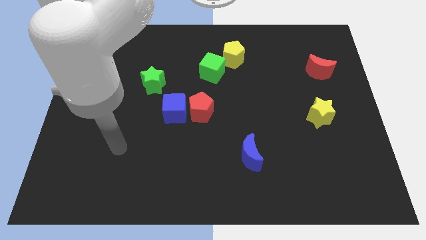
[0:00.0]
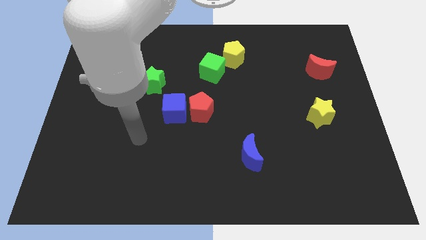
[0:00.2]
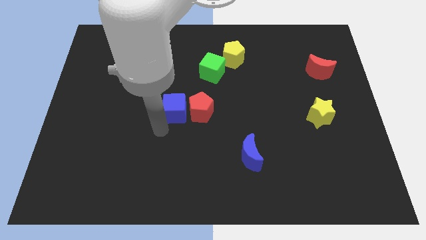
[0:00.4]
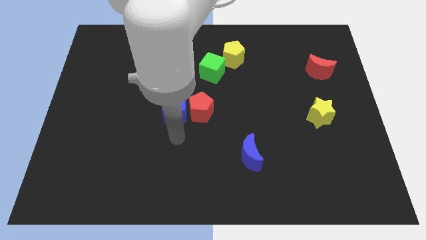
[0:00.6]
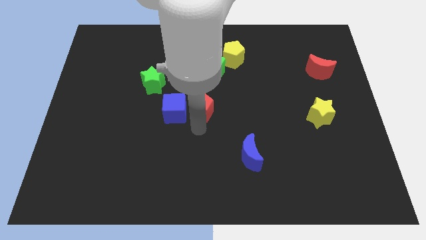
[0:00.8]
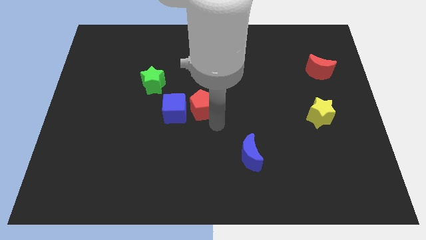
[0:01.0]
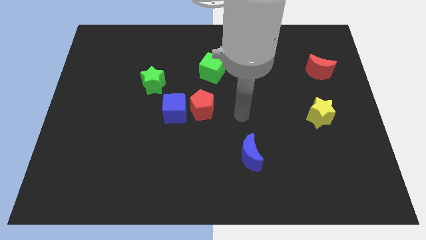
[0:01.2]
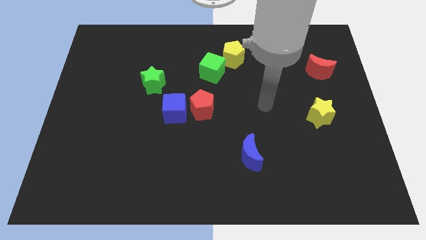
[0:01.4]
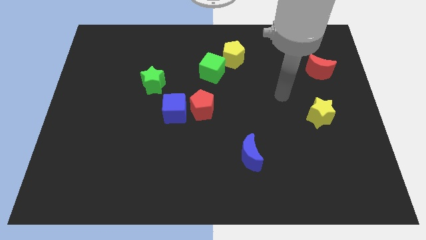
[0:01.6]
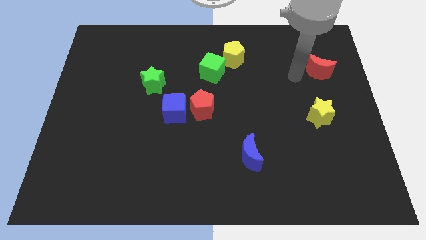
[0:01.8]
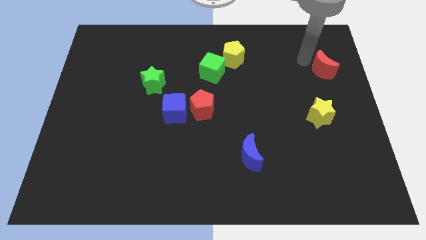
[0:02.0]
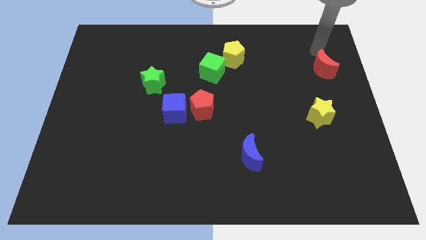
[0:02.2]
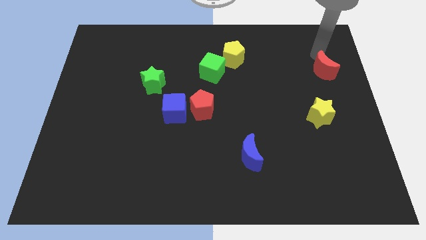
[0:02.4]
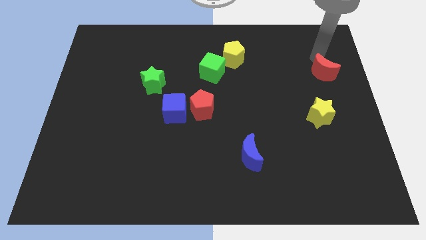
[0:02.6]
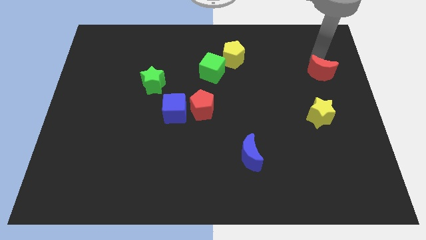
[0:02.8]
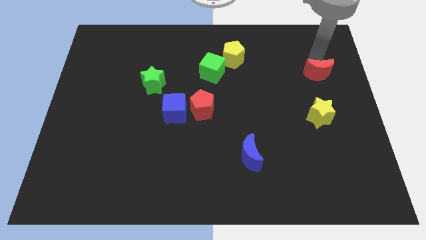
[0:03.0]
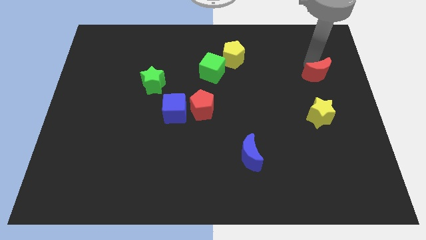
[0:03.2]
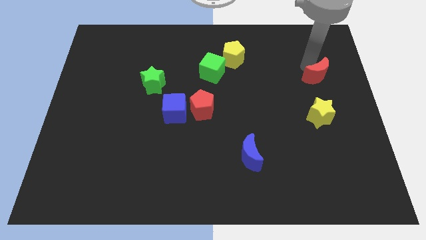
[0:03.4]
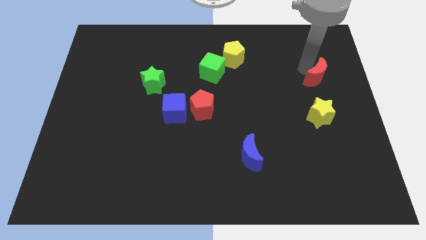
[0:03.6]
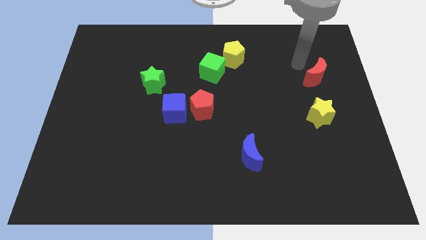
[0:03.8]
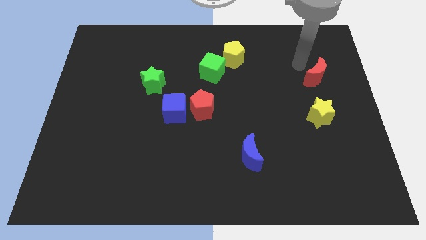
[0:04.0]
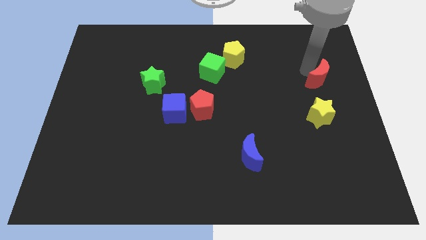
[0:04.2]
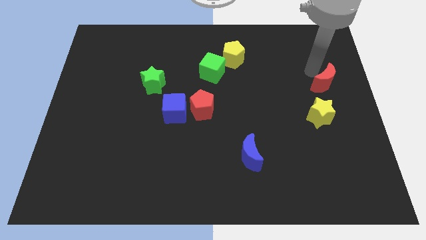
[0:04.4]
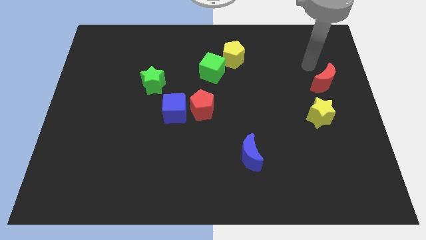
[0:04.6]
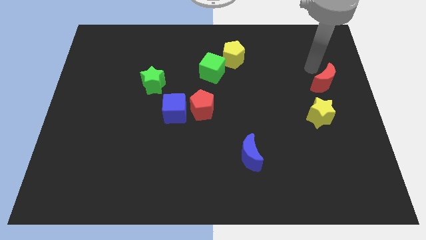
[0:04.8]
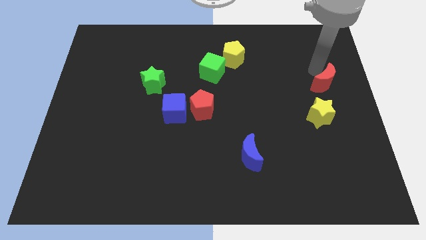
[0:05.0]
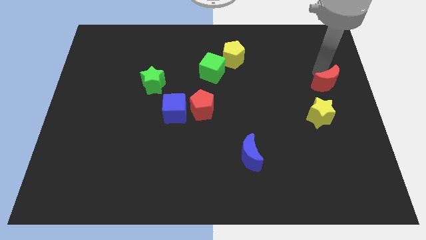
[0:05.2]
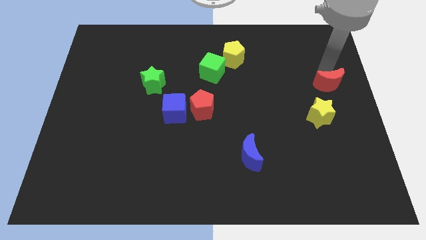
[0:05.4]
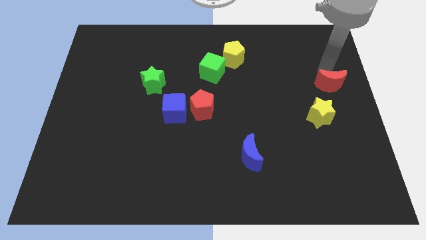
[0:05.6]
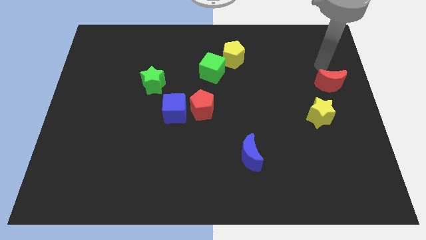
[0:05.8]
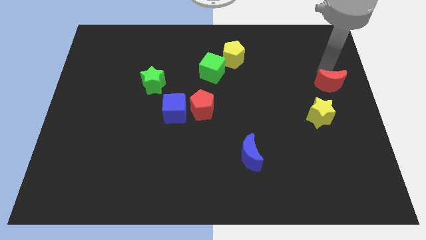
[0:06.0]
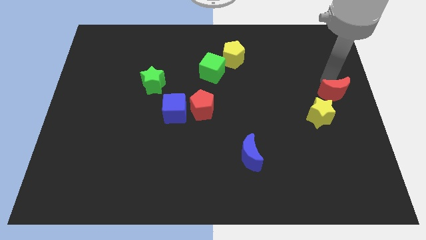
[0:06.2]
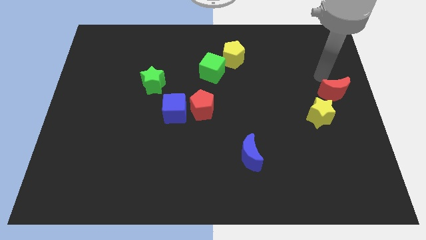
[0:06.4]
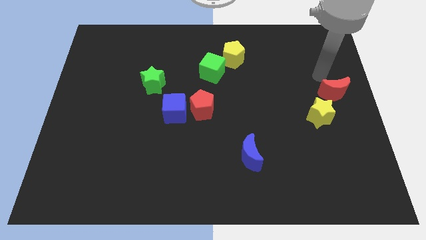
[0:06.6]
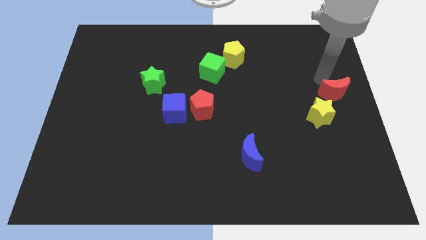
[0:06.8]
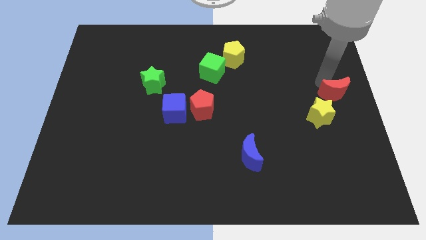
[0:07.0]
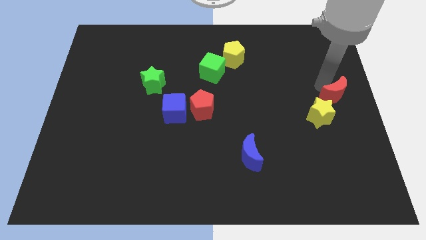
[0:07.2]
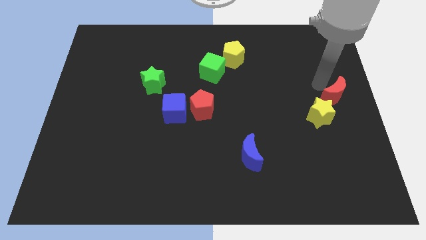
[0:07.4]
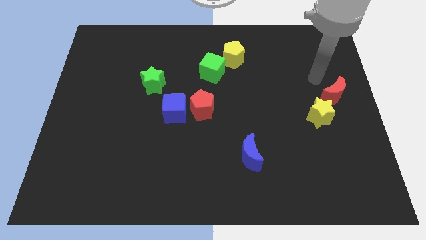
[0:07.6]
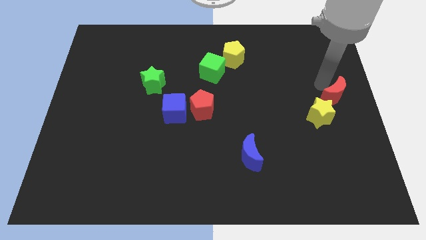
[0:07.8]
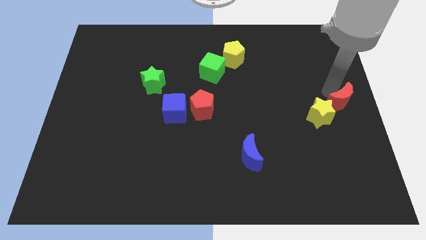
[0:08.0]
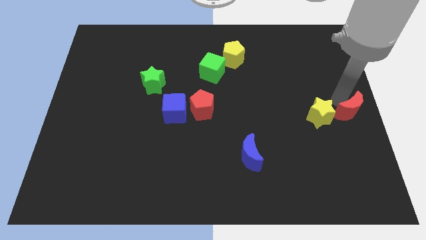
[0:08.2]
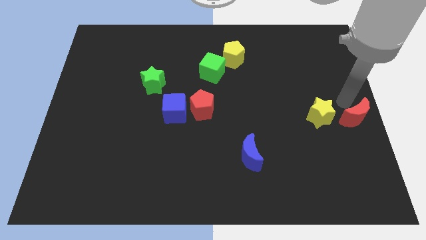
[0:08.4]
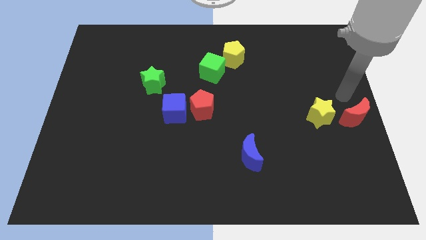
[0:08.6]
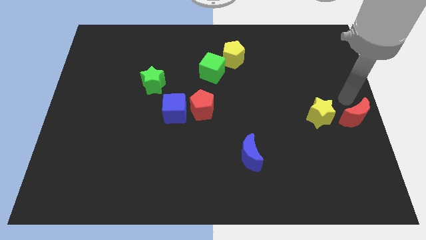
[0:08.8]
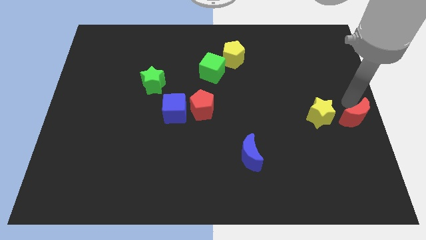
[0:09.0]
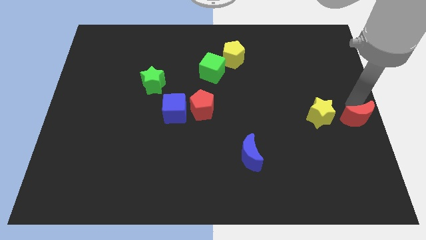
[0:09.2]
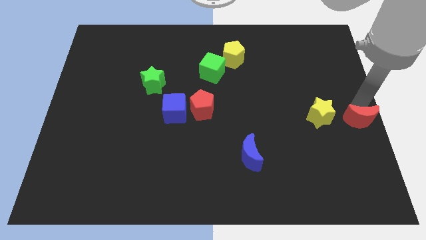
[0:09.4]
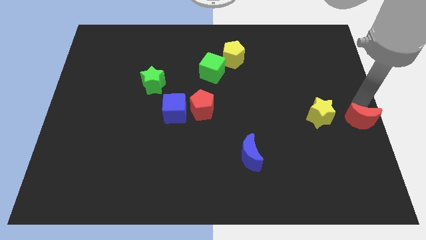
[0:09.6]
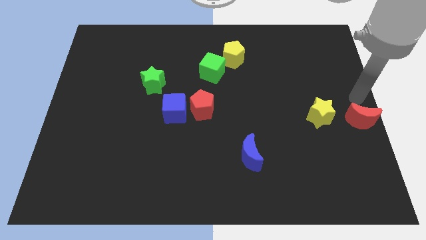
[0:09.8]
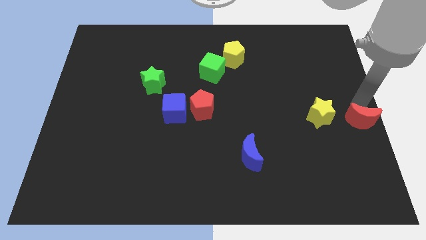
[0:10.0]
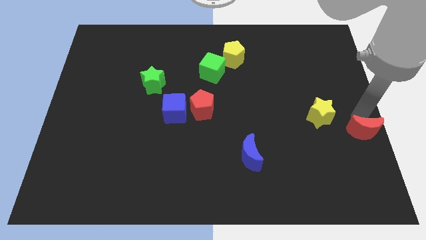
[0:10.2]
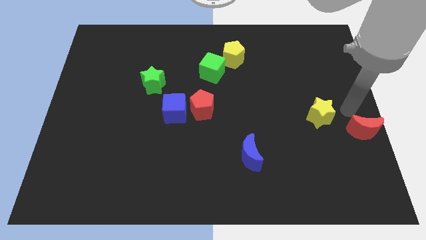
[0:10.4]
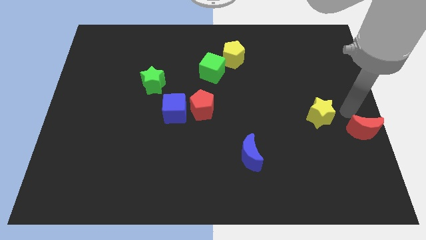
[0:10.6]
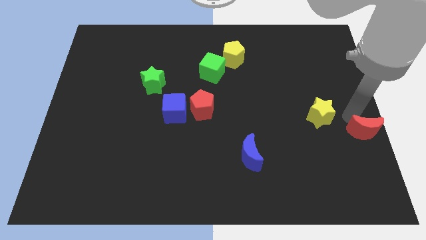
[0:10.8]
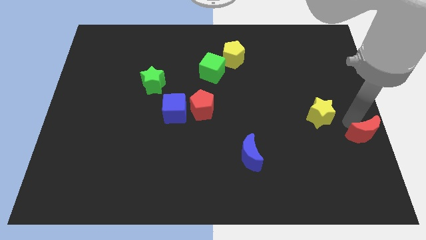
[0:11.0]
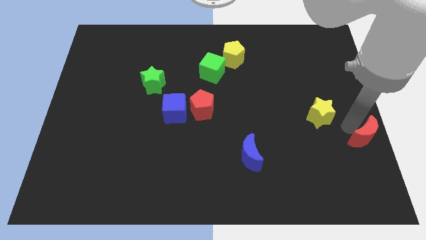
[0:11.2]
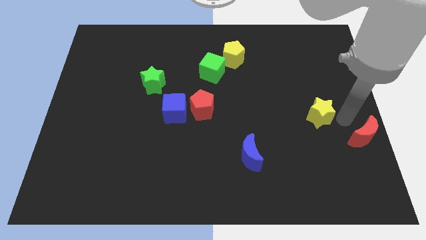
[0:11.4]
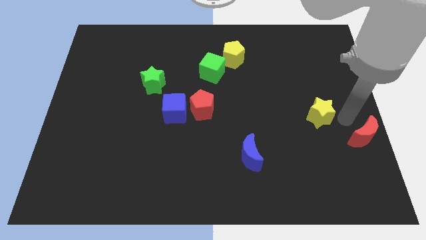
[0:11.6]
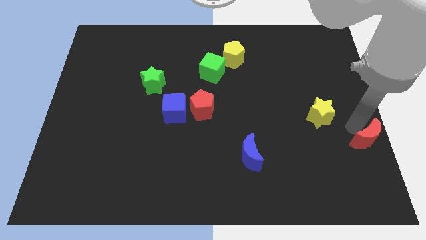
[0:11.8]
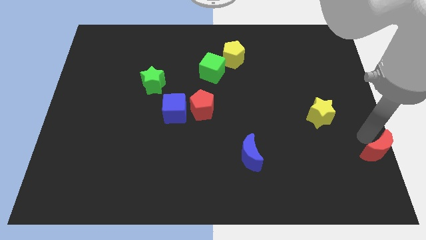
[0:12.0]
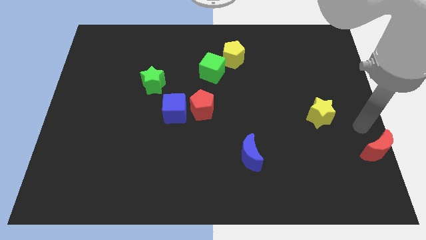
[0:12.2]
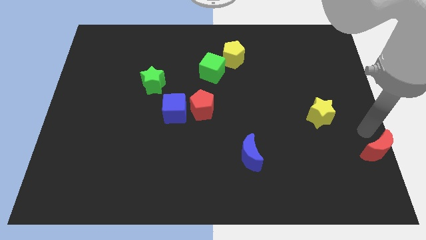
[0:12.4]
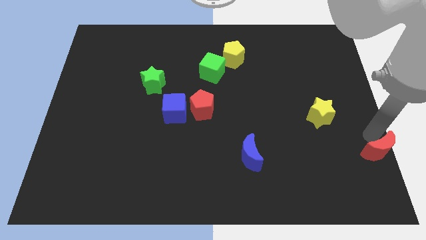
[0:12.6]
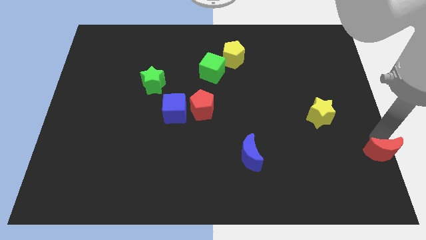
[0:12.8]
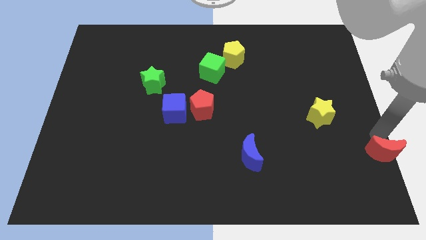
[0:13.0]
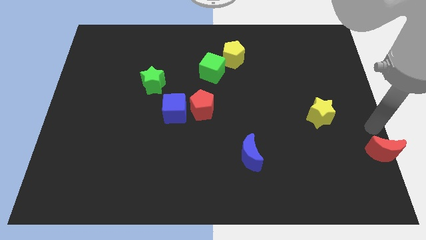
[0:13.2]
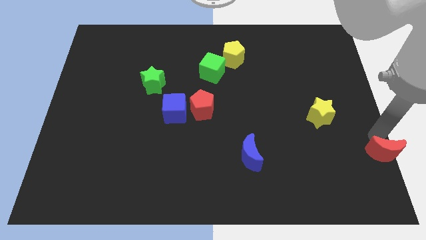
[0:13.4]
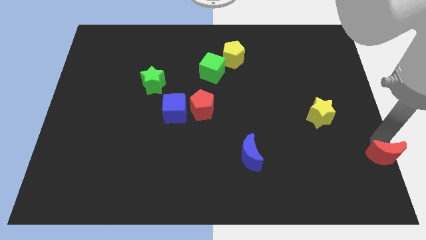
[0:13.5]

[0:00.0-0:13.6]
slide the red moon to the bottom right corner
